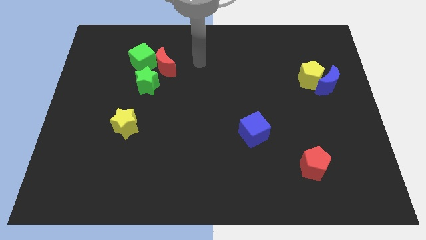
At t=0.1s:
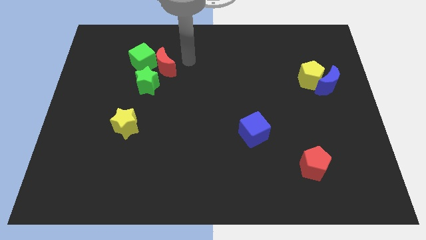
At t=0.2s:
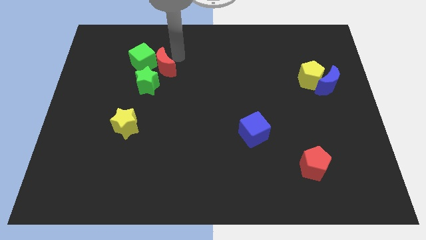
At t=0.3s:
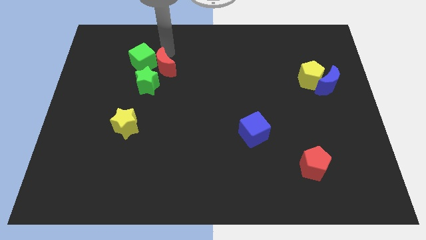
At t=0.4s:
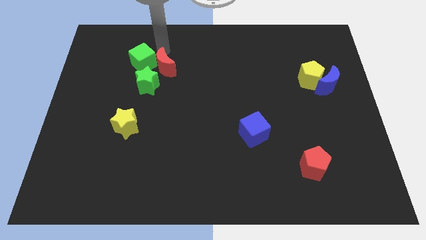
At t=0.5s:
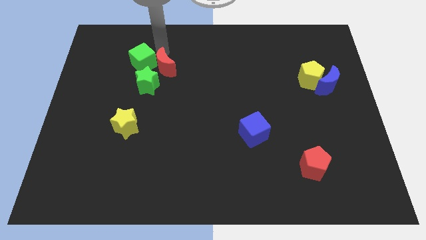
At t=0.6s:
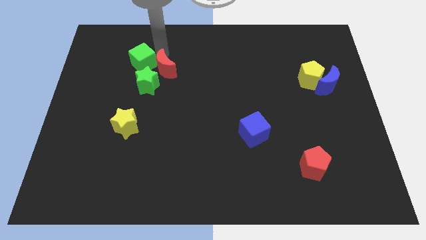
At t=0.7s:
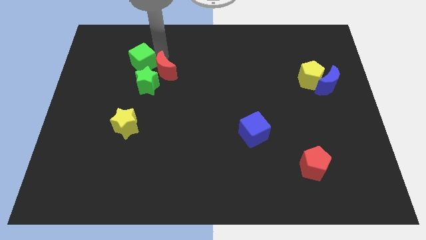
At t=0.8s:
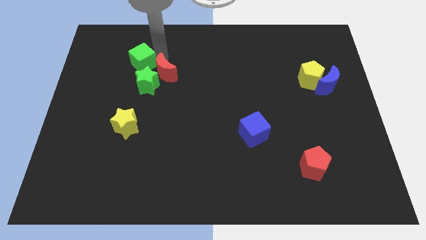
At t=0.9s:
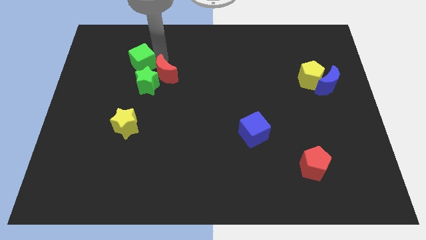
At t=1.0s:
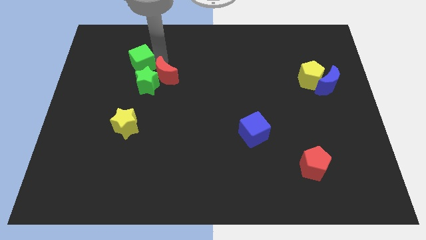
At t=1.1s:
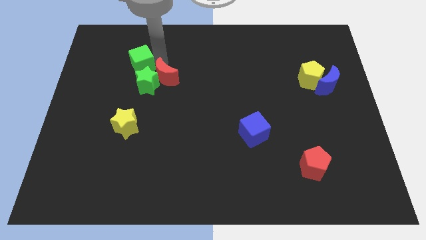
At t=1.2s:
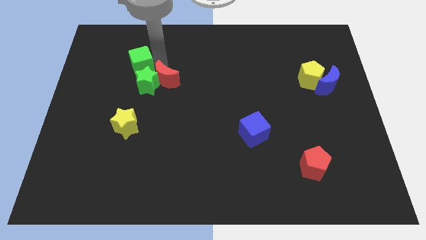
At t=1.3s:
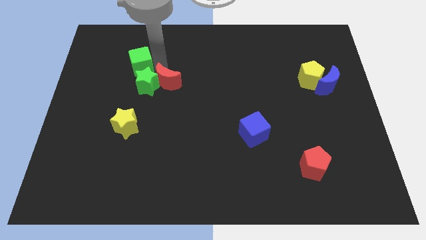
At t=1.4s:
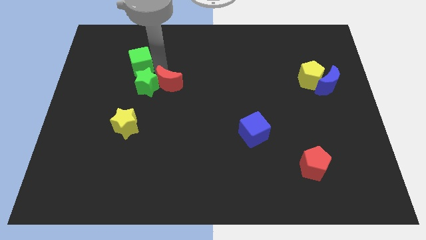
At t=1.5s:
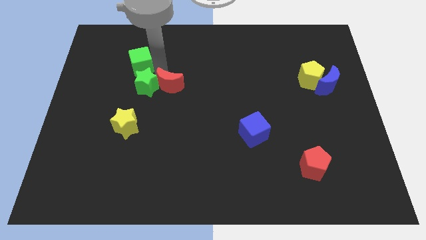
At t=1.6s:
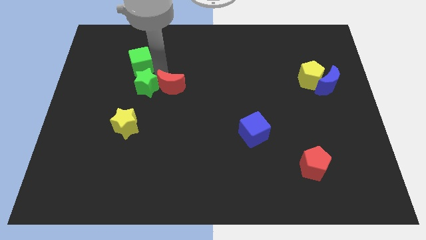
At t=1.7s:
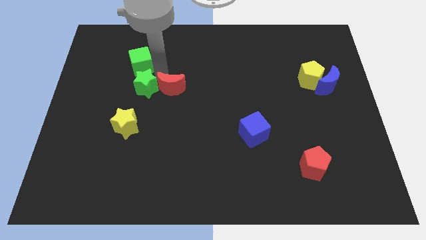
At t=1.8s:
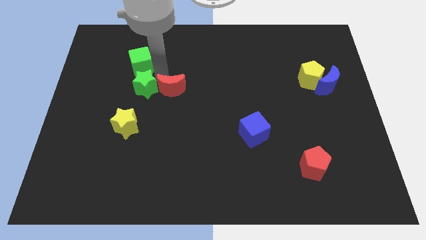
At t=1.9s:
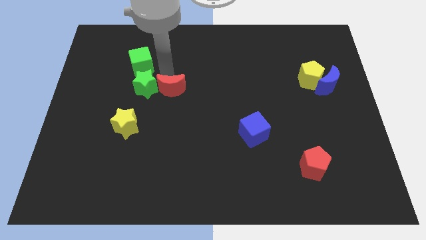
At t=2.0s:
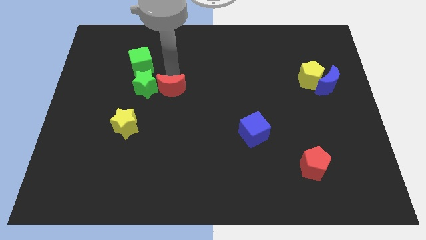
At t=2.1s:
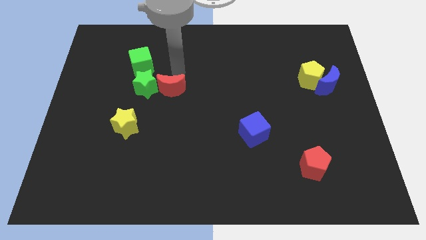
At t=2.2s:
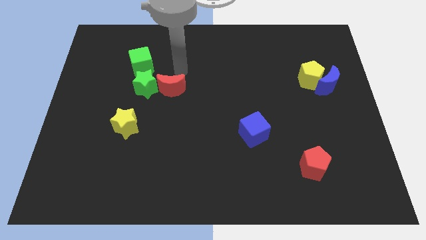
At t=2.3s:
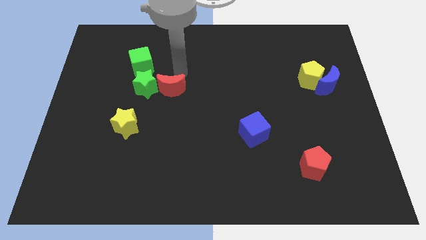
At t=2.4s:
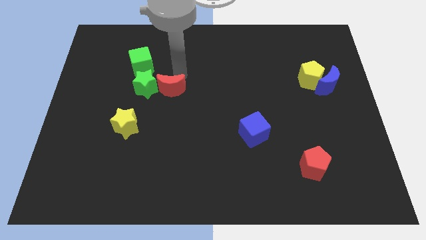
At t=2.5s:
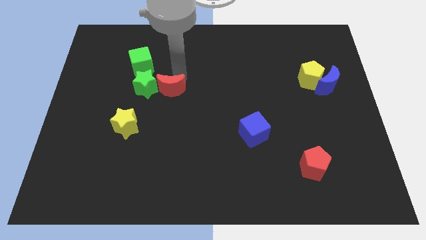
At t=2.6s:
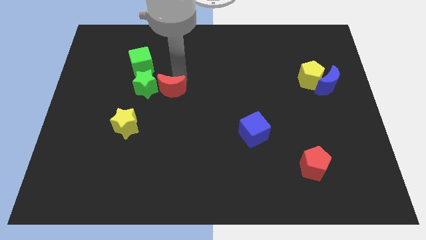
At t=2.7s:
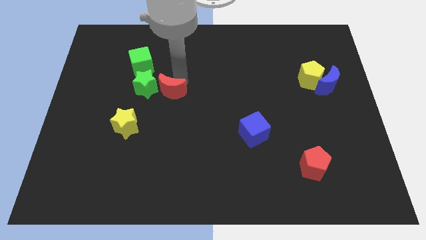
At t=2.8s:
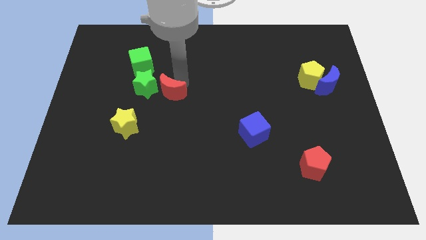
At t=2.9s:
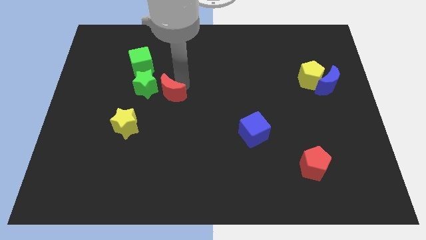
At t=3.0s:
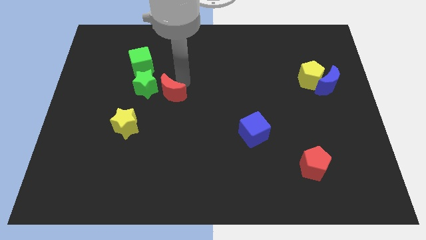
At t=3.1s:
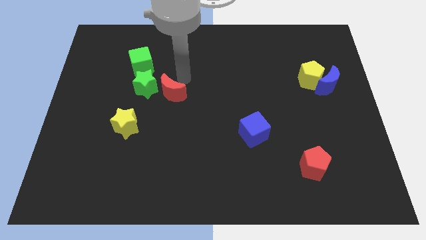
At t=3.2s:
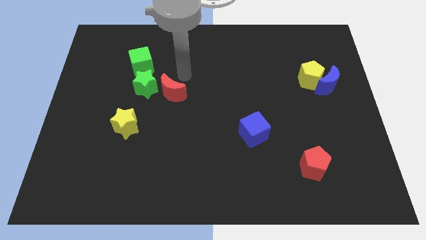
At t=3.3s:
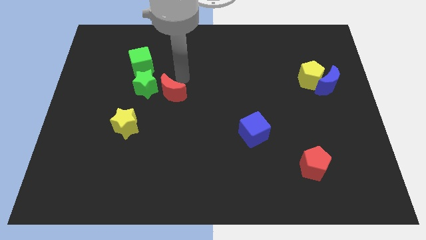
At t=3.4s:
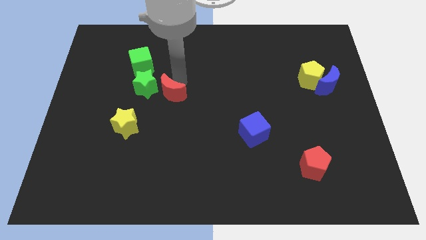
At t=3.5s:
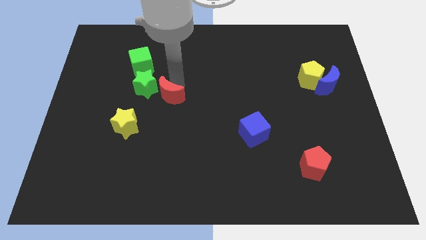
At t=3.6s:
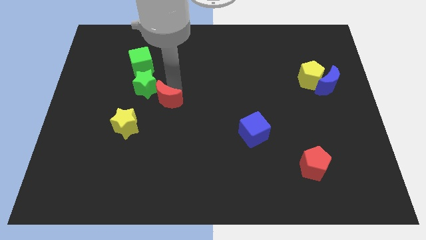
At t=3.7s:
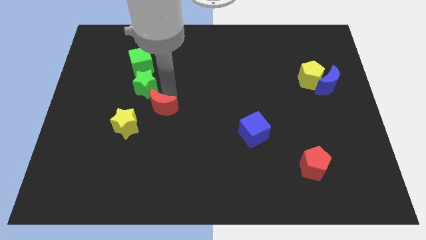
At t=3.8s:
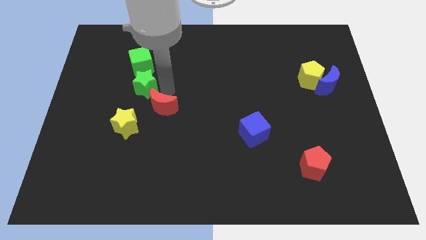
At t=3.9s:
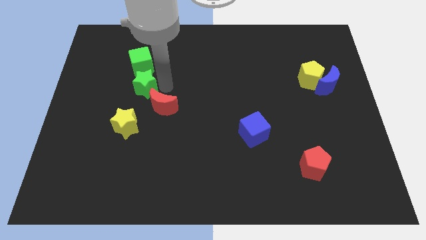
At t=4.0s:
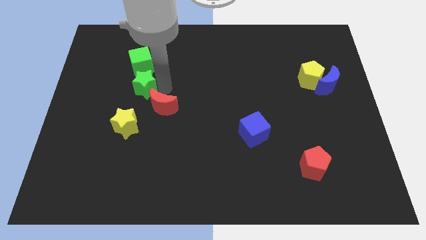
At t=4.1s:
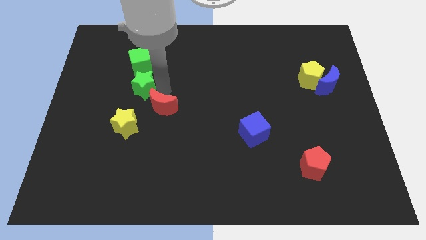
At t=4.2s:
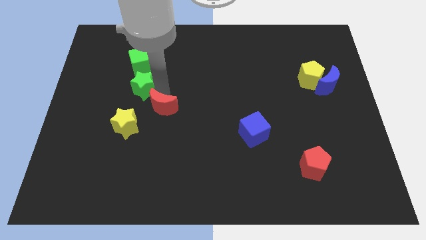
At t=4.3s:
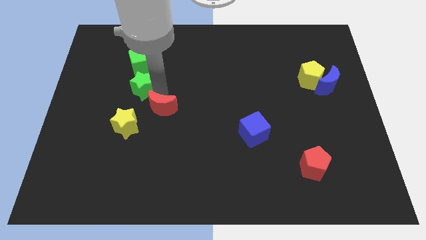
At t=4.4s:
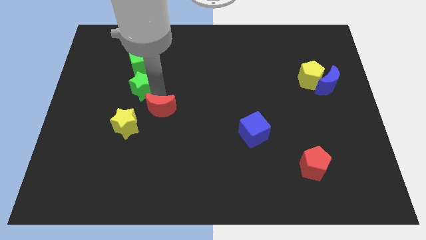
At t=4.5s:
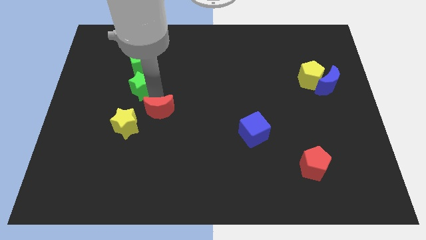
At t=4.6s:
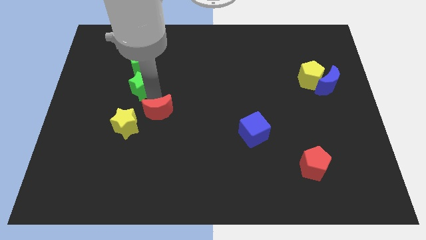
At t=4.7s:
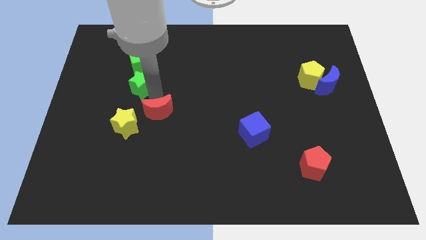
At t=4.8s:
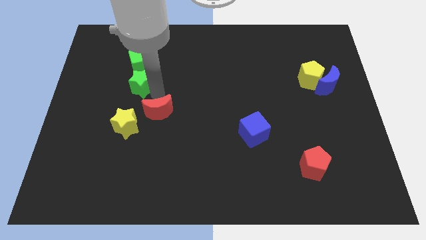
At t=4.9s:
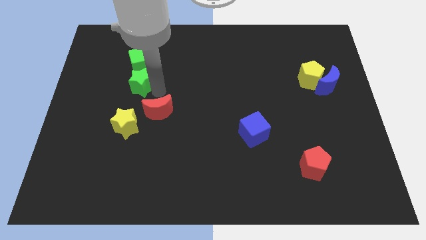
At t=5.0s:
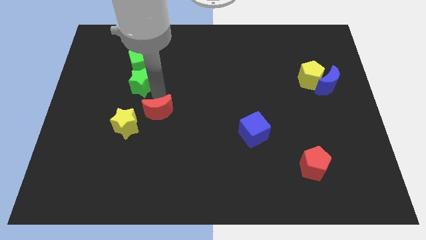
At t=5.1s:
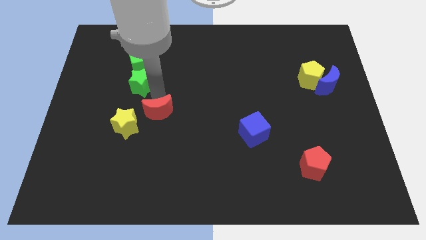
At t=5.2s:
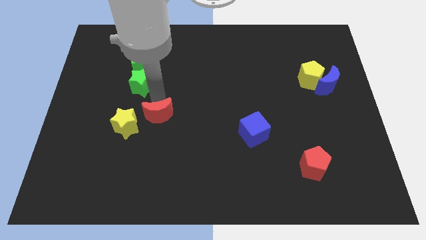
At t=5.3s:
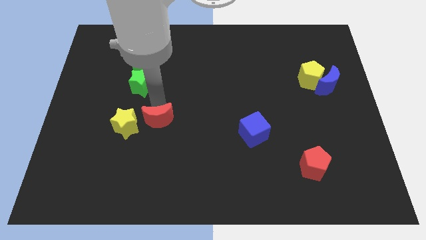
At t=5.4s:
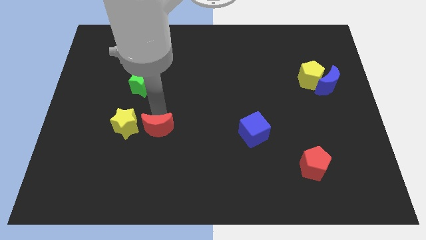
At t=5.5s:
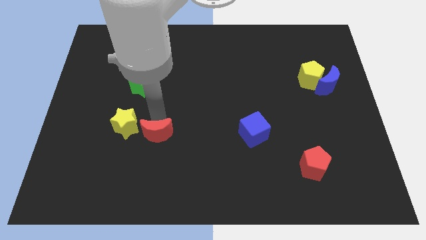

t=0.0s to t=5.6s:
move the red moon down

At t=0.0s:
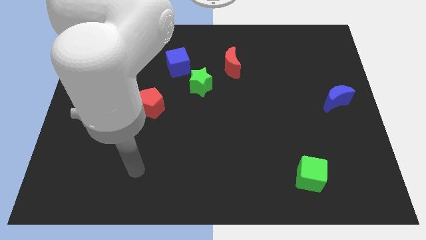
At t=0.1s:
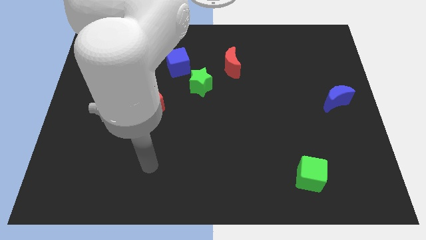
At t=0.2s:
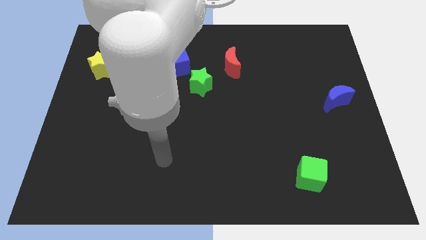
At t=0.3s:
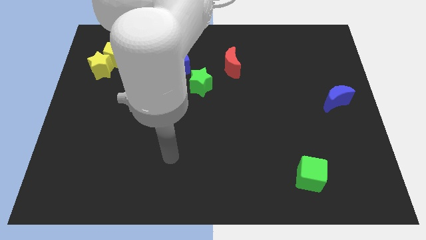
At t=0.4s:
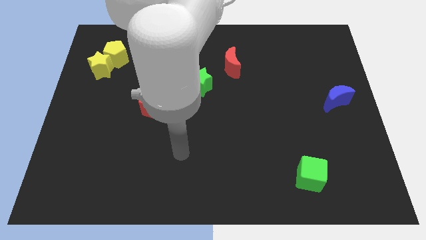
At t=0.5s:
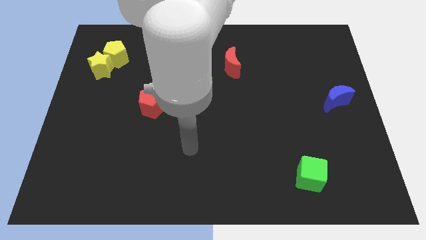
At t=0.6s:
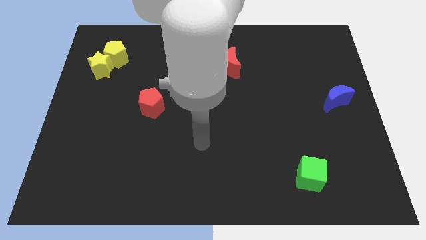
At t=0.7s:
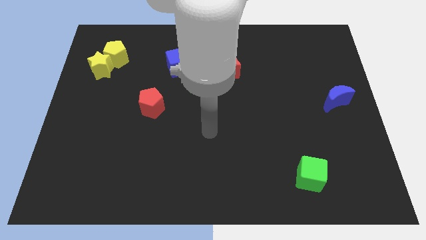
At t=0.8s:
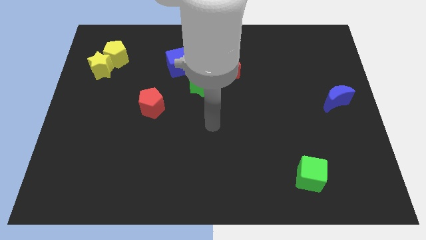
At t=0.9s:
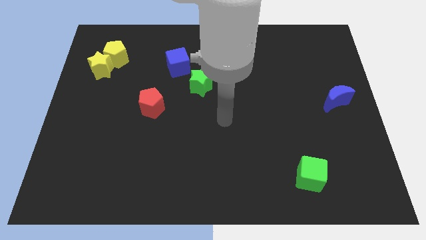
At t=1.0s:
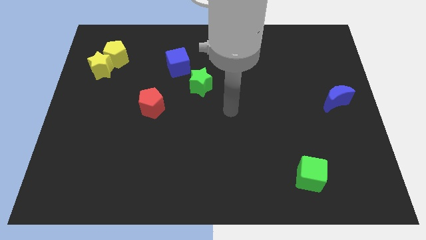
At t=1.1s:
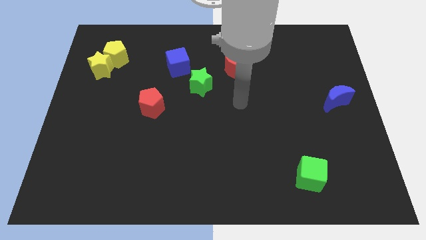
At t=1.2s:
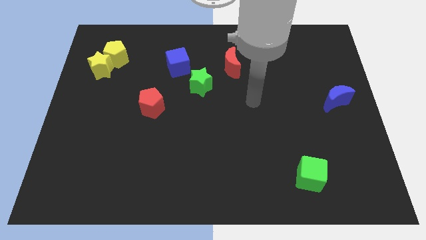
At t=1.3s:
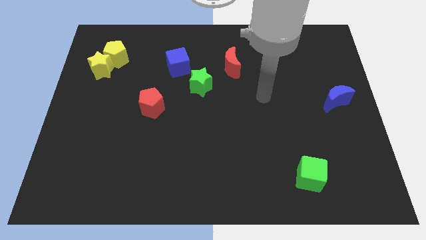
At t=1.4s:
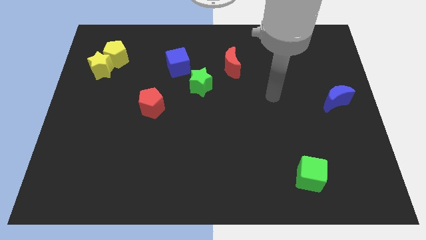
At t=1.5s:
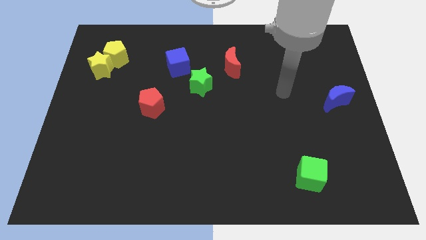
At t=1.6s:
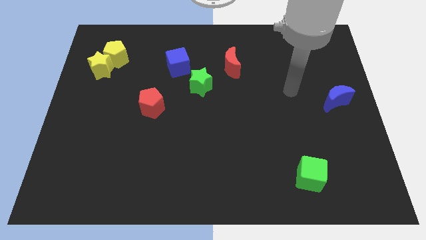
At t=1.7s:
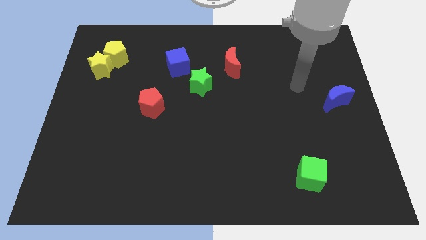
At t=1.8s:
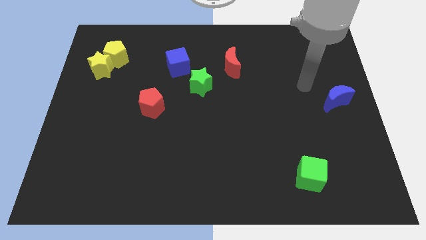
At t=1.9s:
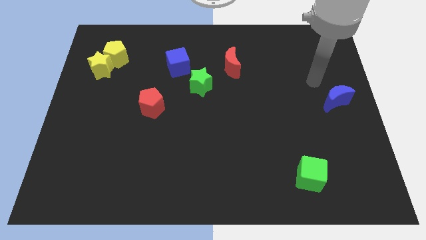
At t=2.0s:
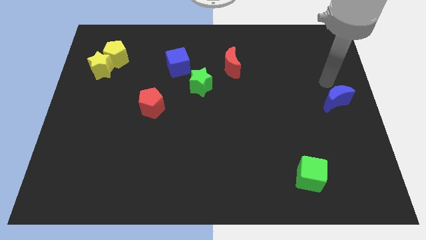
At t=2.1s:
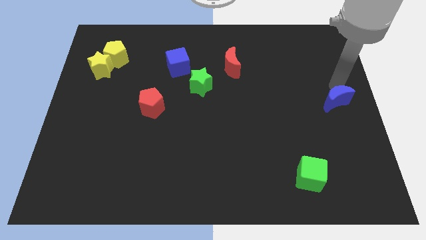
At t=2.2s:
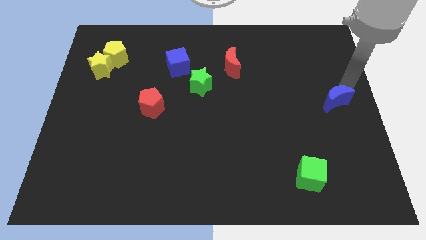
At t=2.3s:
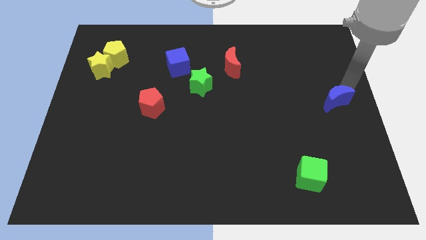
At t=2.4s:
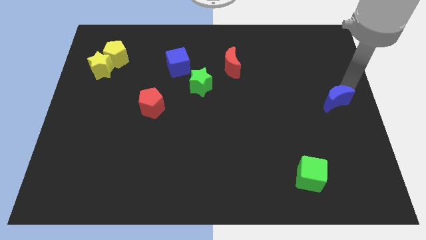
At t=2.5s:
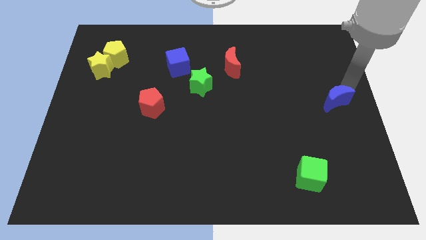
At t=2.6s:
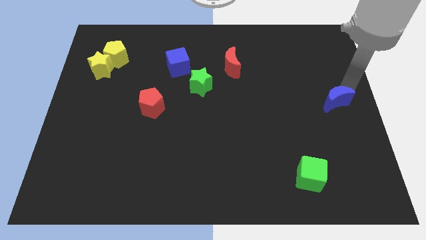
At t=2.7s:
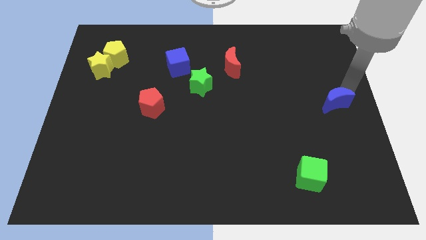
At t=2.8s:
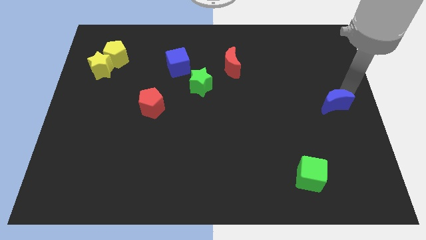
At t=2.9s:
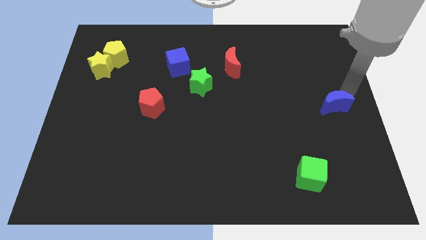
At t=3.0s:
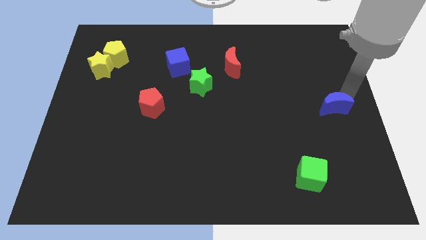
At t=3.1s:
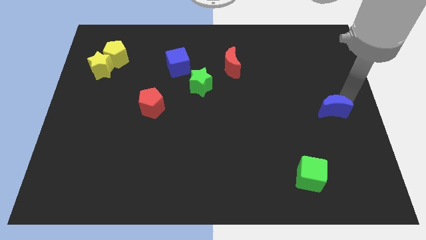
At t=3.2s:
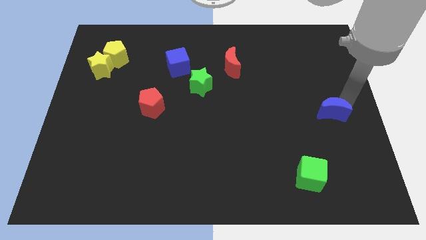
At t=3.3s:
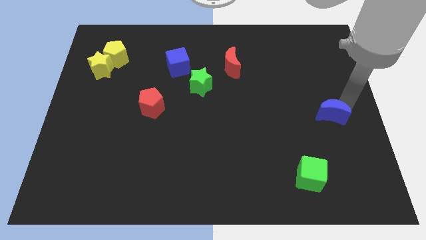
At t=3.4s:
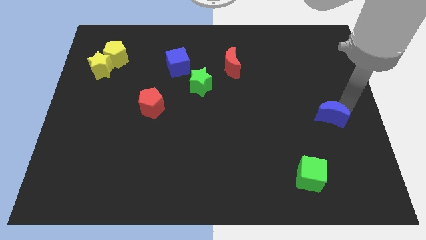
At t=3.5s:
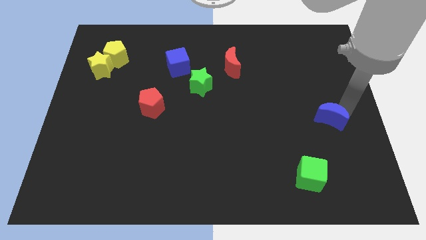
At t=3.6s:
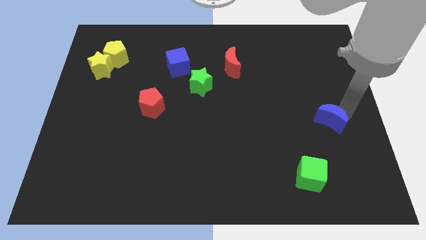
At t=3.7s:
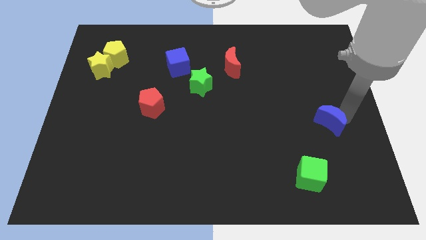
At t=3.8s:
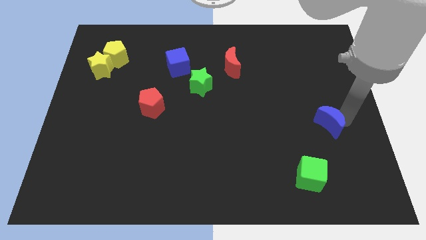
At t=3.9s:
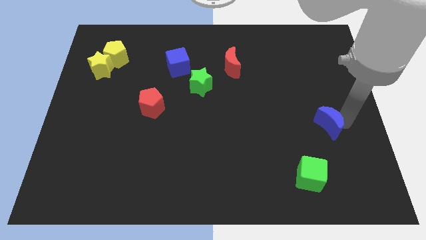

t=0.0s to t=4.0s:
slide the blue moon a little downwards and then left
